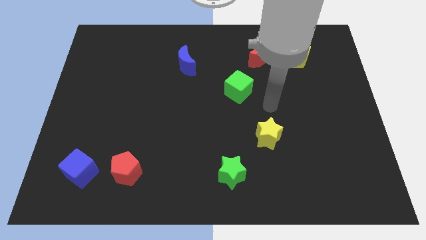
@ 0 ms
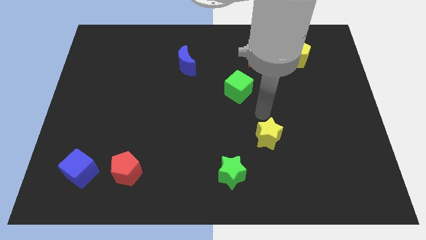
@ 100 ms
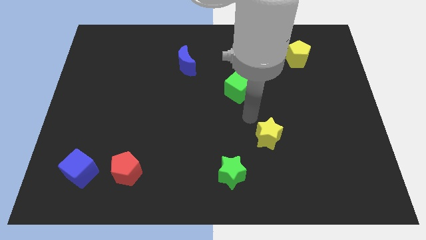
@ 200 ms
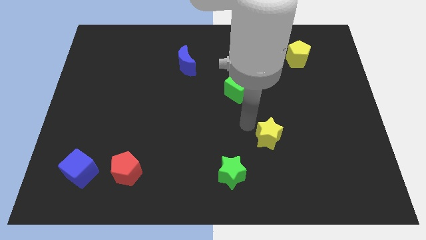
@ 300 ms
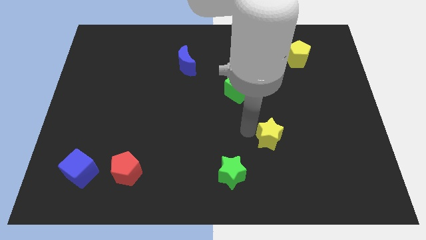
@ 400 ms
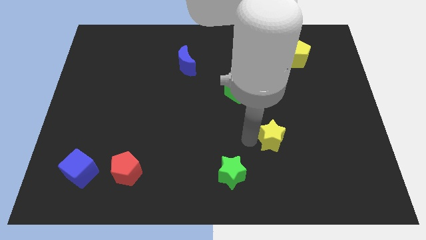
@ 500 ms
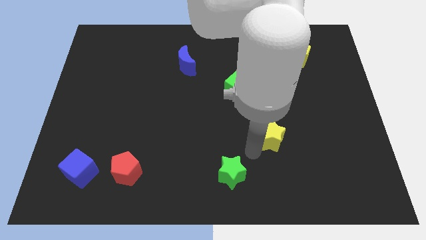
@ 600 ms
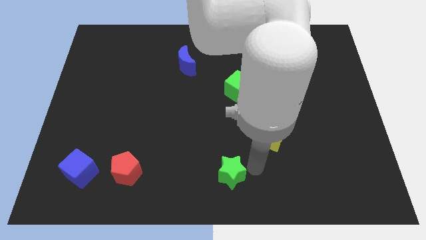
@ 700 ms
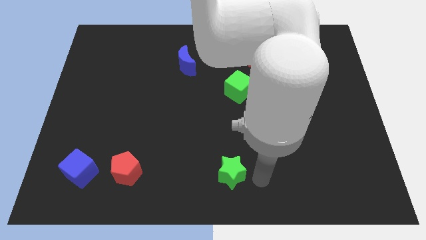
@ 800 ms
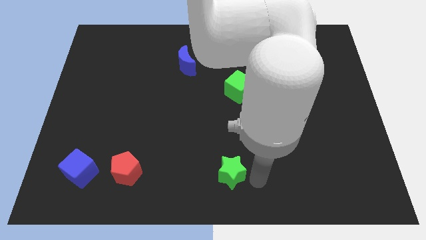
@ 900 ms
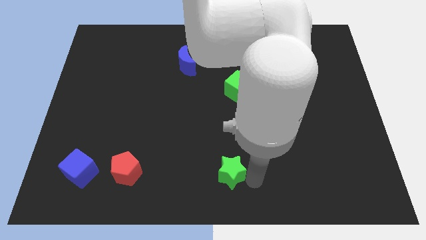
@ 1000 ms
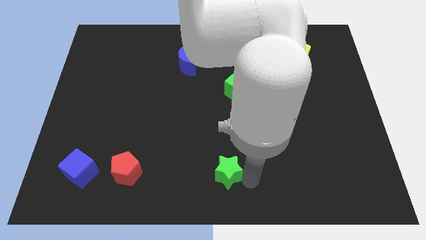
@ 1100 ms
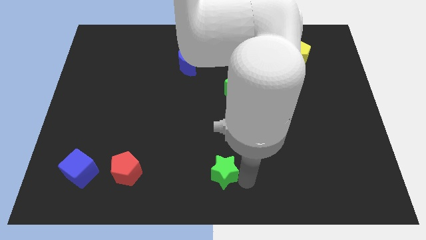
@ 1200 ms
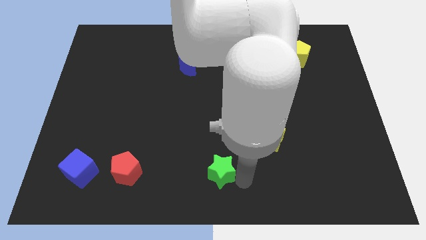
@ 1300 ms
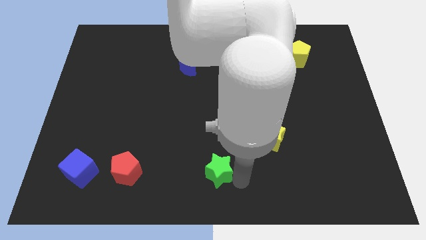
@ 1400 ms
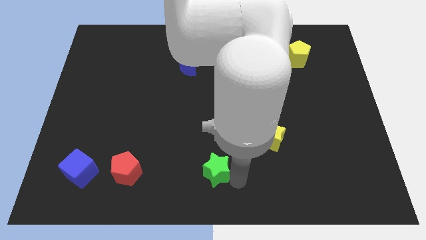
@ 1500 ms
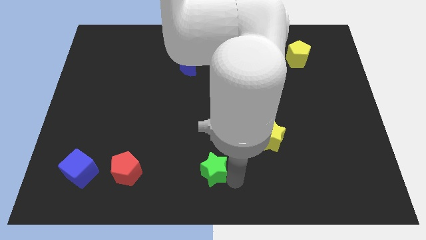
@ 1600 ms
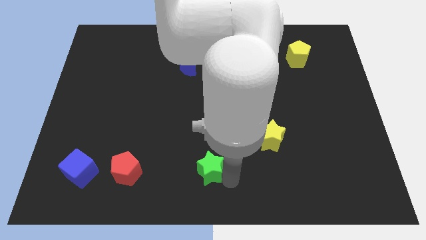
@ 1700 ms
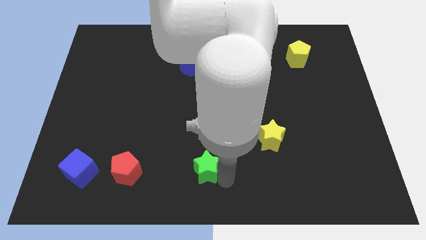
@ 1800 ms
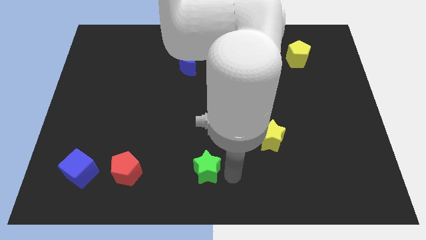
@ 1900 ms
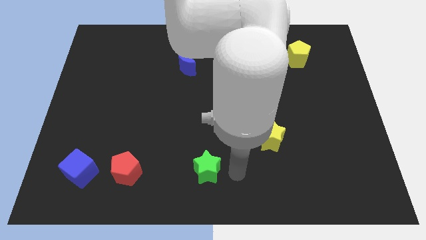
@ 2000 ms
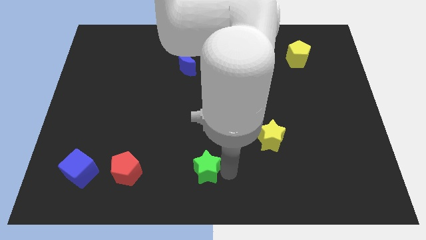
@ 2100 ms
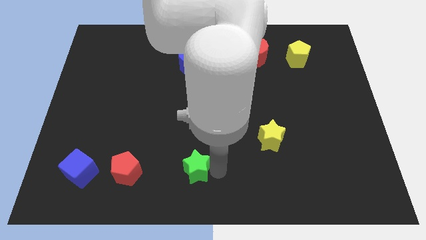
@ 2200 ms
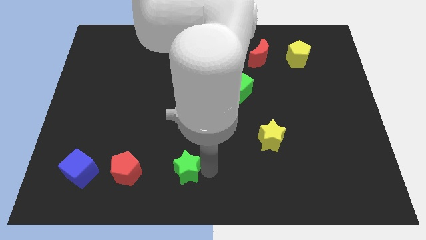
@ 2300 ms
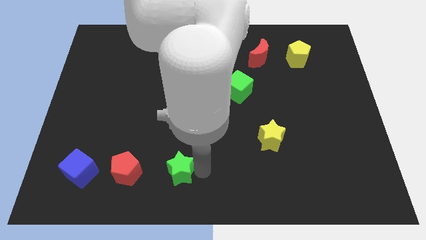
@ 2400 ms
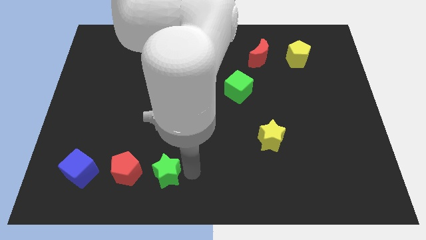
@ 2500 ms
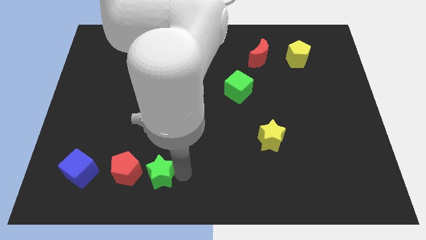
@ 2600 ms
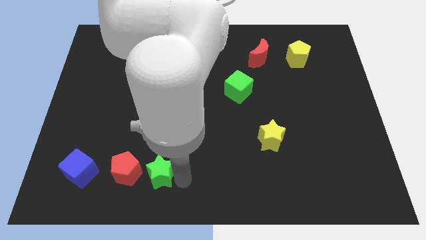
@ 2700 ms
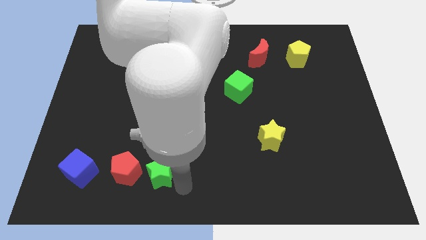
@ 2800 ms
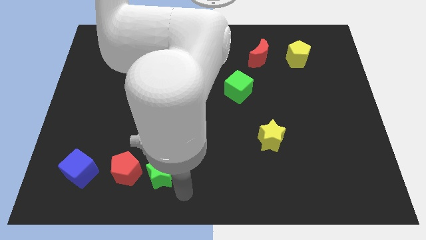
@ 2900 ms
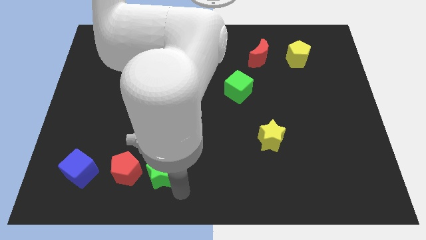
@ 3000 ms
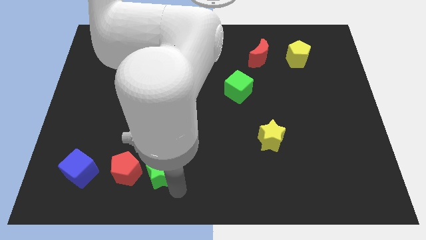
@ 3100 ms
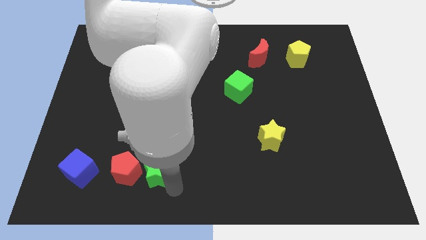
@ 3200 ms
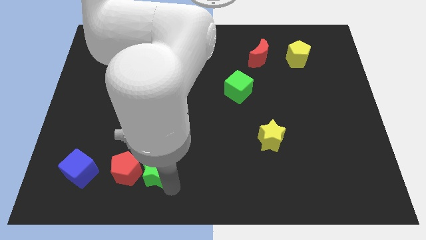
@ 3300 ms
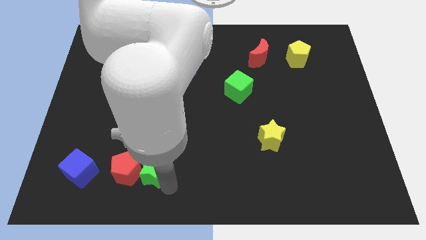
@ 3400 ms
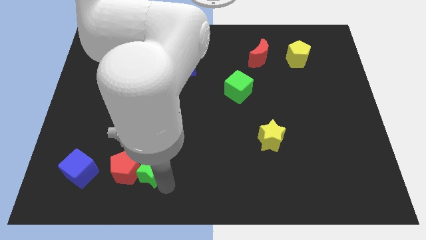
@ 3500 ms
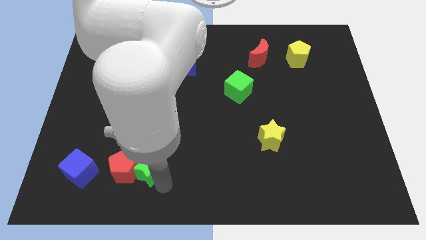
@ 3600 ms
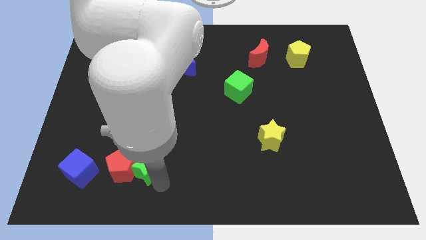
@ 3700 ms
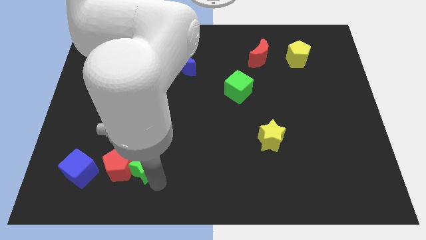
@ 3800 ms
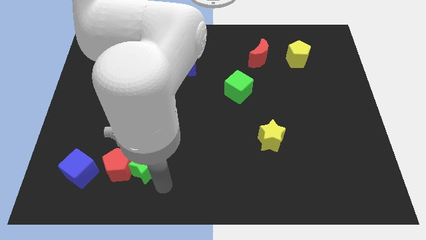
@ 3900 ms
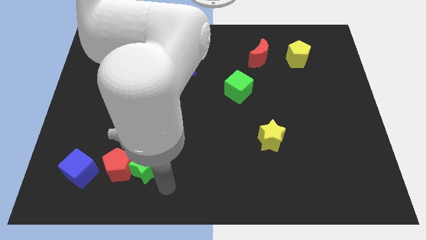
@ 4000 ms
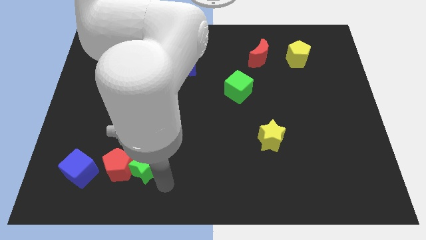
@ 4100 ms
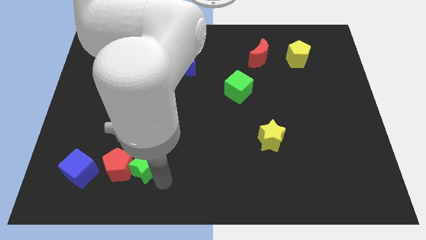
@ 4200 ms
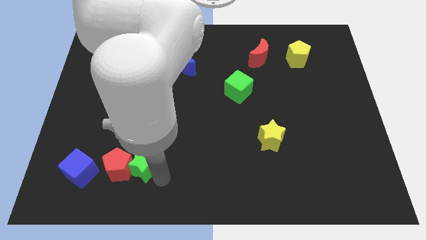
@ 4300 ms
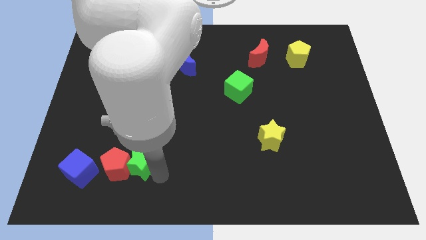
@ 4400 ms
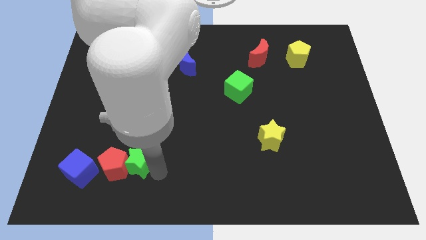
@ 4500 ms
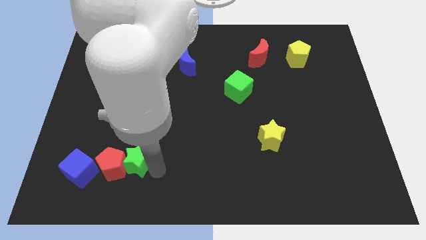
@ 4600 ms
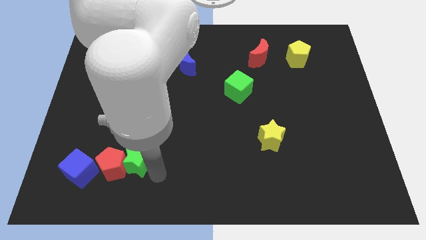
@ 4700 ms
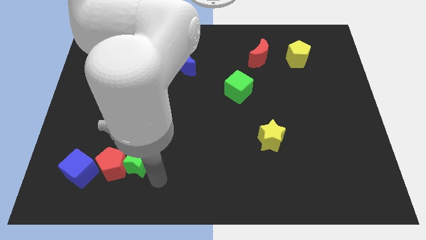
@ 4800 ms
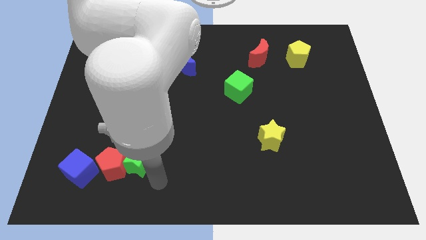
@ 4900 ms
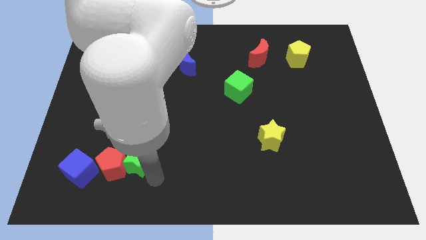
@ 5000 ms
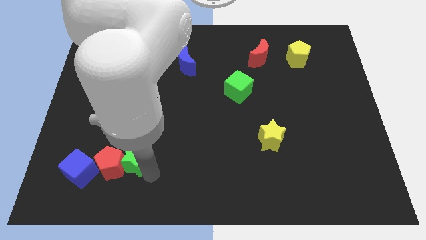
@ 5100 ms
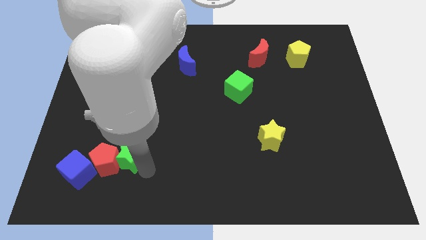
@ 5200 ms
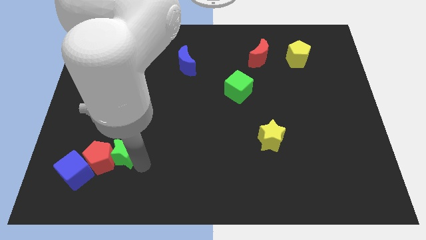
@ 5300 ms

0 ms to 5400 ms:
move the green star to the top right of the blue cube

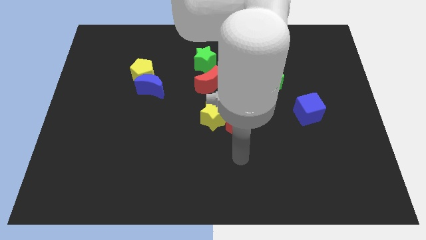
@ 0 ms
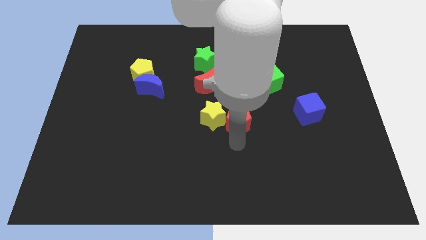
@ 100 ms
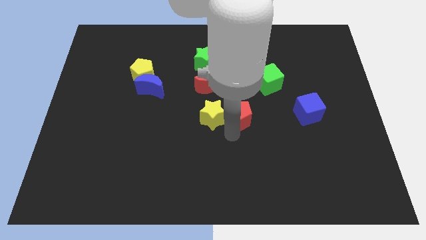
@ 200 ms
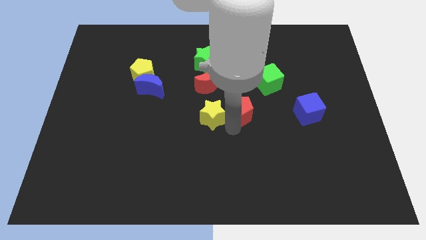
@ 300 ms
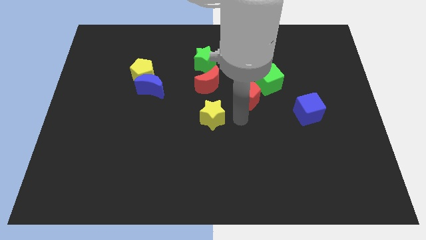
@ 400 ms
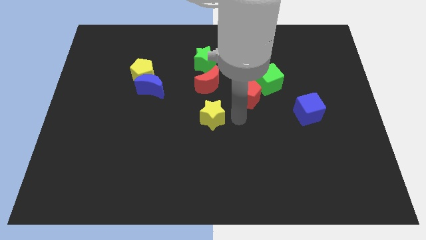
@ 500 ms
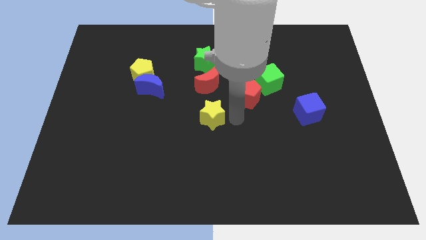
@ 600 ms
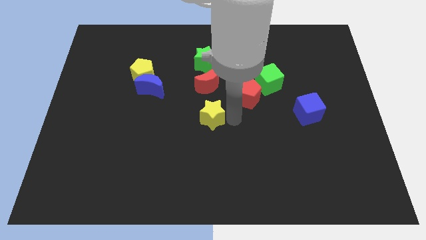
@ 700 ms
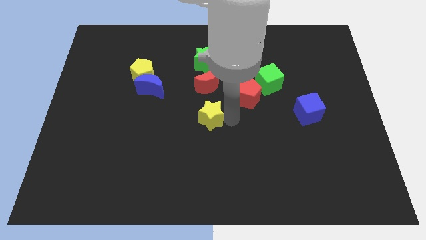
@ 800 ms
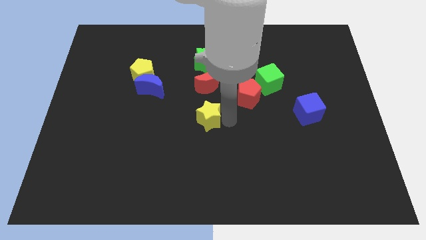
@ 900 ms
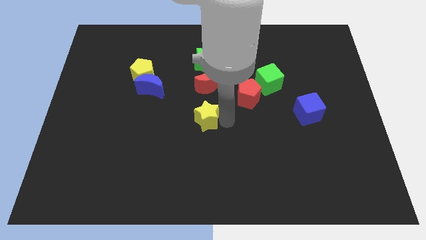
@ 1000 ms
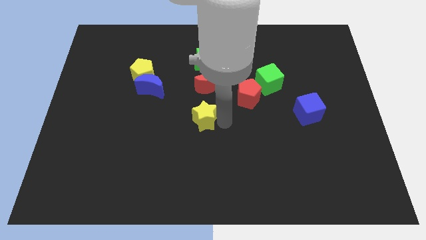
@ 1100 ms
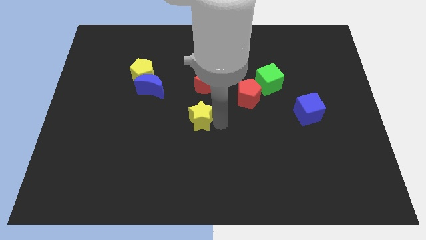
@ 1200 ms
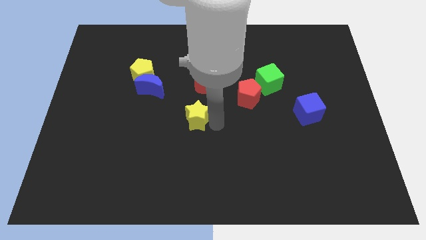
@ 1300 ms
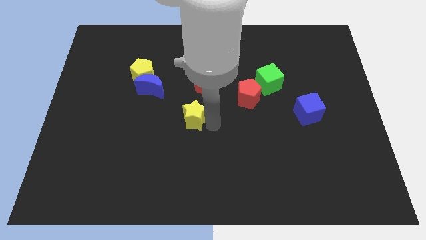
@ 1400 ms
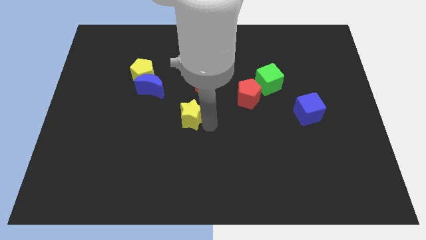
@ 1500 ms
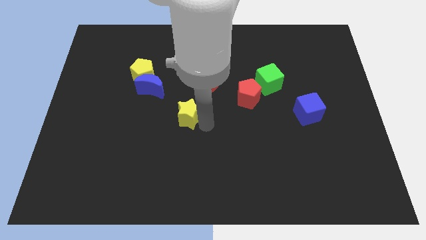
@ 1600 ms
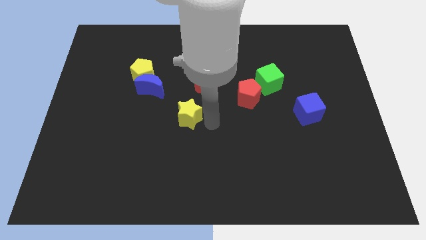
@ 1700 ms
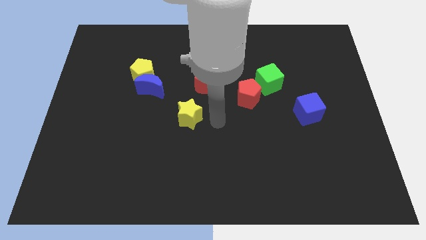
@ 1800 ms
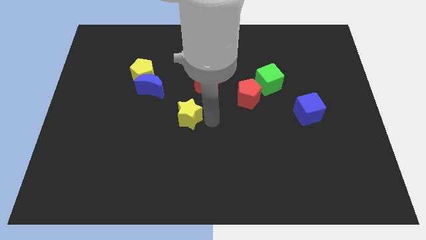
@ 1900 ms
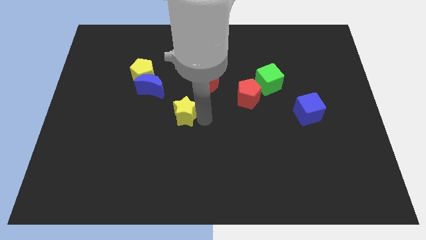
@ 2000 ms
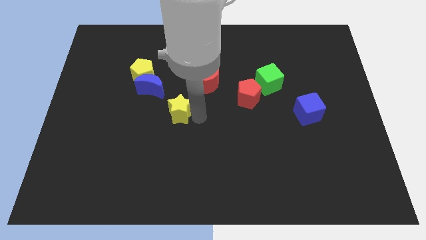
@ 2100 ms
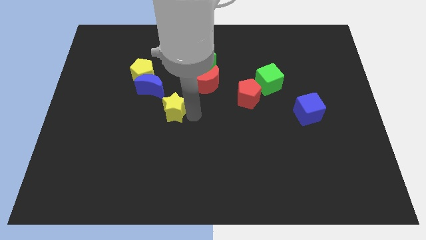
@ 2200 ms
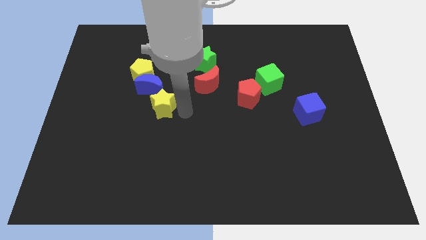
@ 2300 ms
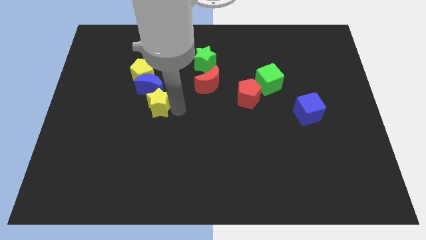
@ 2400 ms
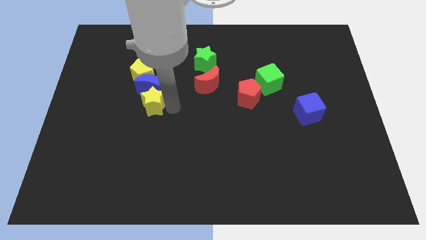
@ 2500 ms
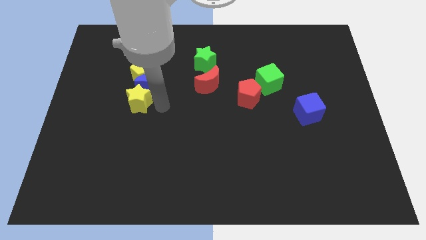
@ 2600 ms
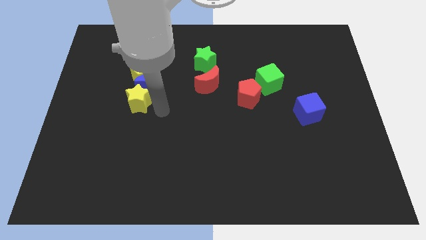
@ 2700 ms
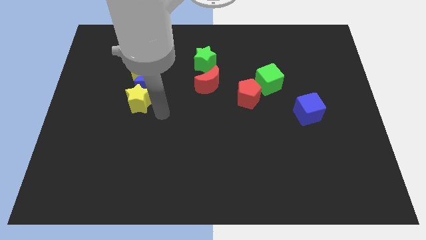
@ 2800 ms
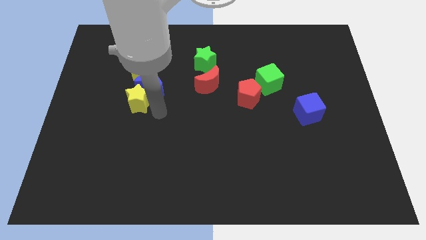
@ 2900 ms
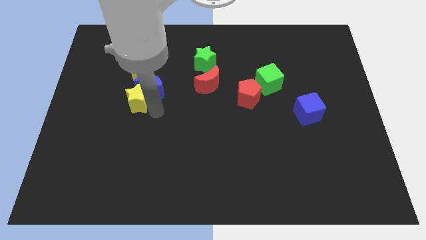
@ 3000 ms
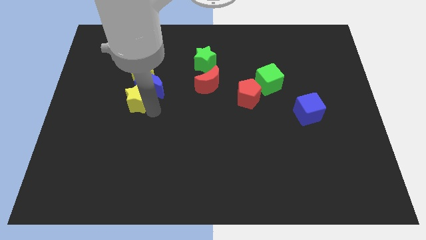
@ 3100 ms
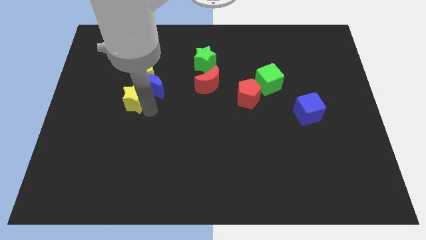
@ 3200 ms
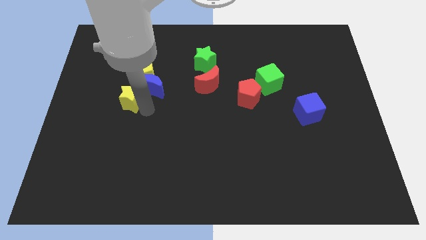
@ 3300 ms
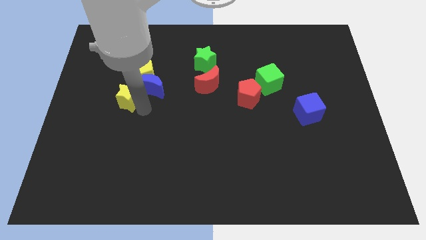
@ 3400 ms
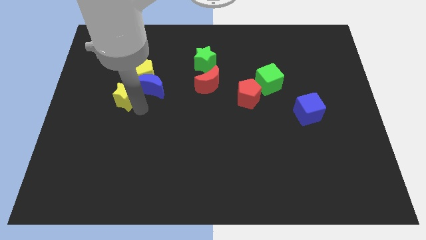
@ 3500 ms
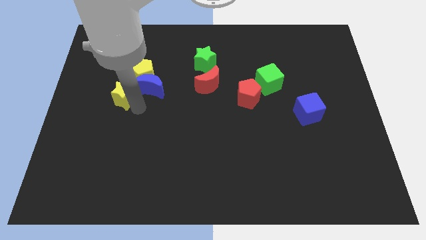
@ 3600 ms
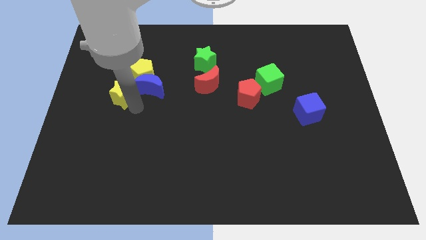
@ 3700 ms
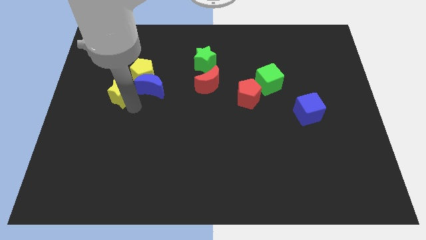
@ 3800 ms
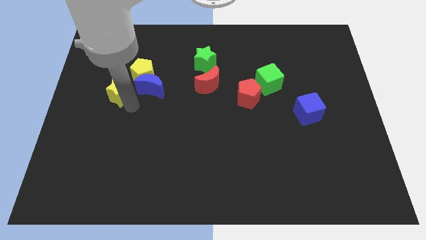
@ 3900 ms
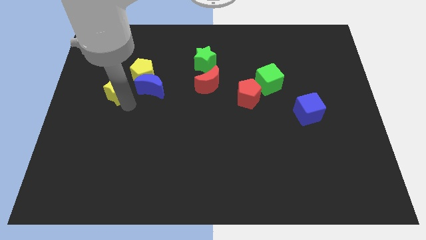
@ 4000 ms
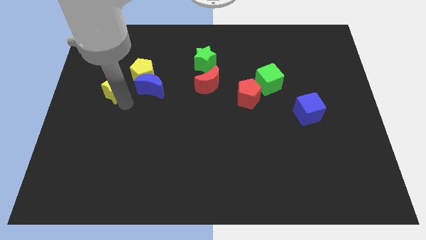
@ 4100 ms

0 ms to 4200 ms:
put the yellow star just left of the yellow pentagon
